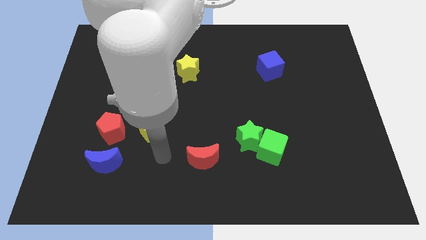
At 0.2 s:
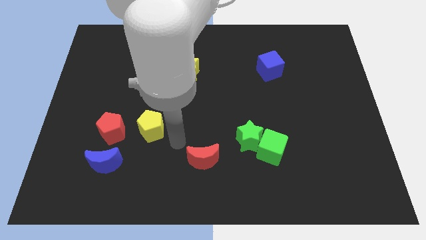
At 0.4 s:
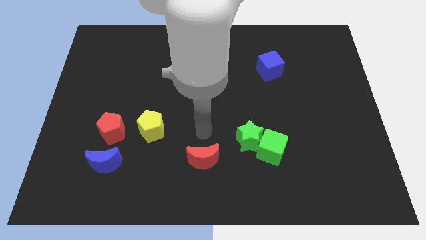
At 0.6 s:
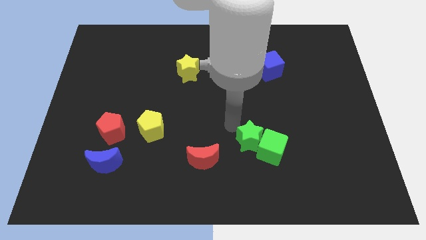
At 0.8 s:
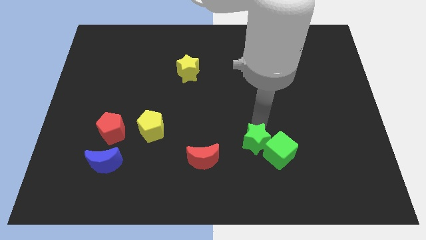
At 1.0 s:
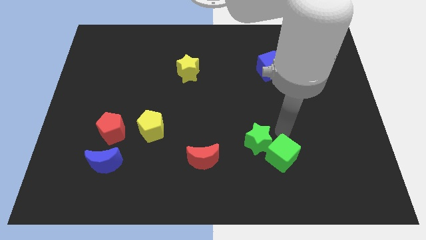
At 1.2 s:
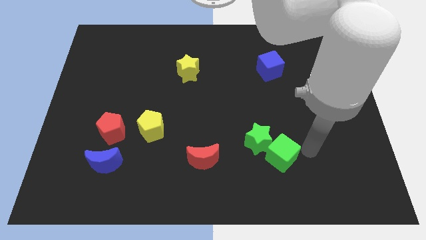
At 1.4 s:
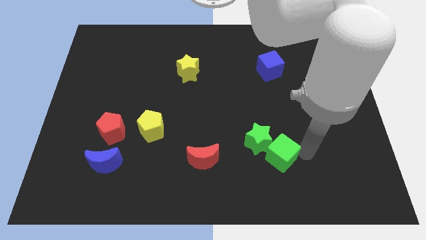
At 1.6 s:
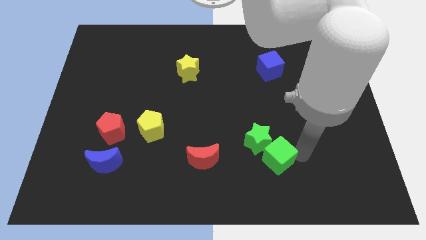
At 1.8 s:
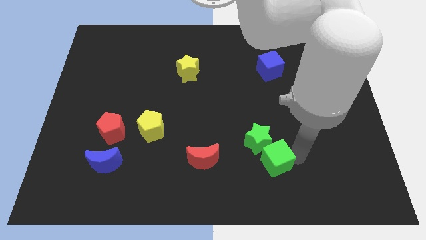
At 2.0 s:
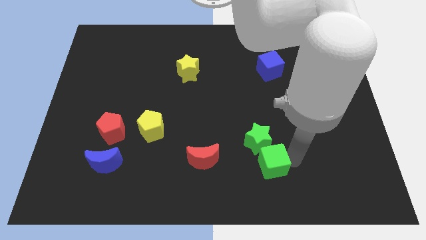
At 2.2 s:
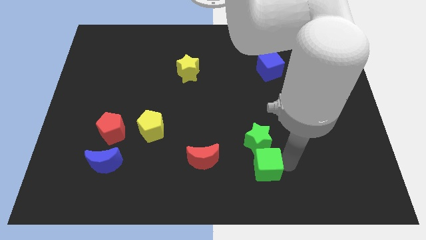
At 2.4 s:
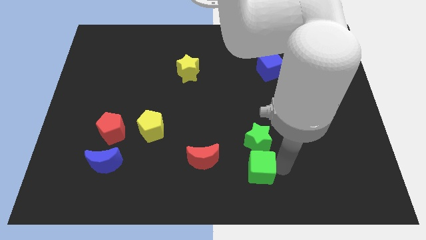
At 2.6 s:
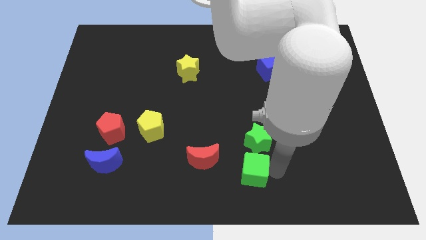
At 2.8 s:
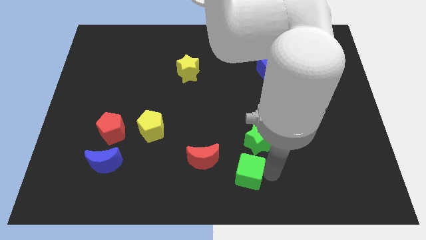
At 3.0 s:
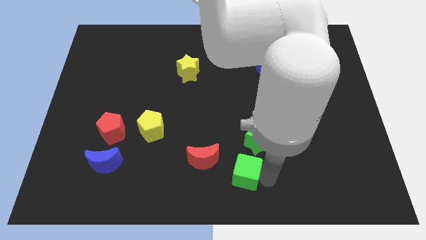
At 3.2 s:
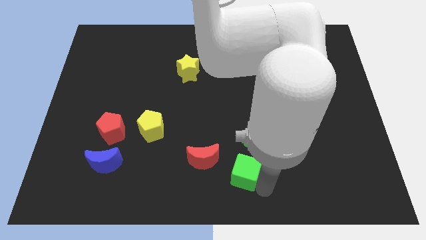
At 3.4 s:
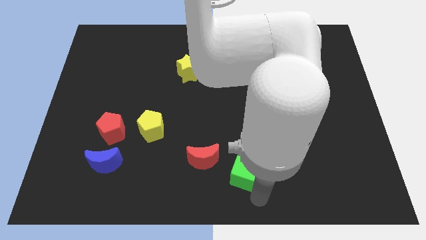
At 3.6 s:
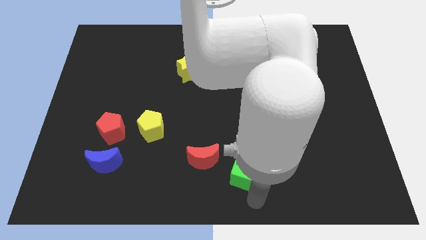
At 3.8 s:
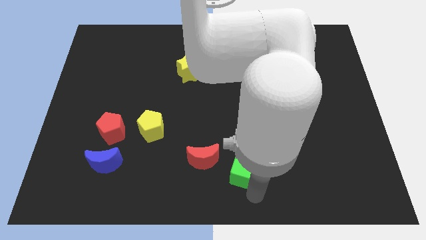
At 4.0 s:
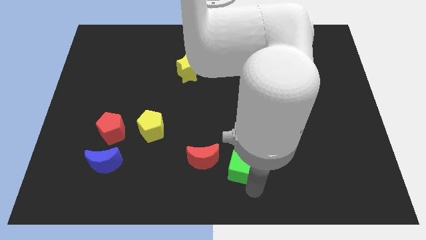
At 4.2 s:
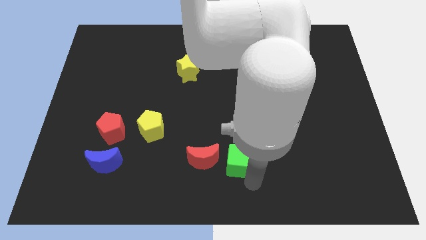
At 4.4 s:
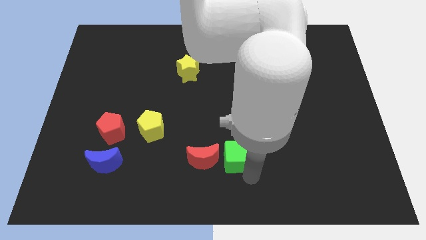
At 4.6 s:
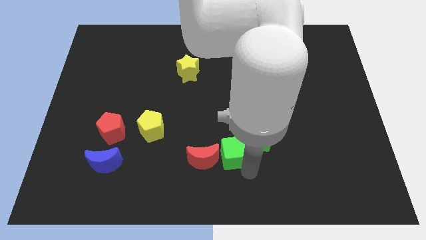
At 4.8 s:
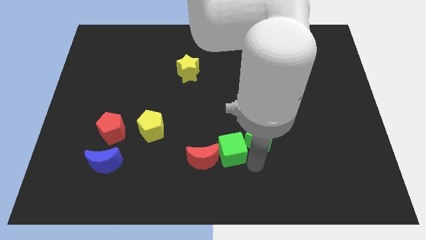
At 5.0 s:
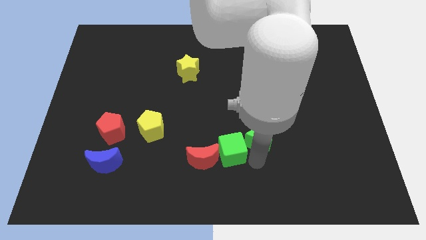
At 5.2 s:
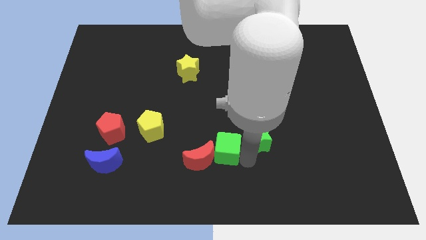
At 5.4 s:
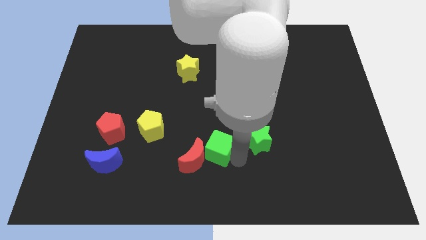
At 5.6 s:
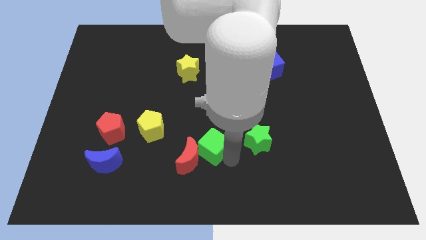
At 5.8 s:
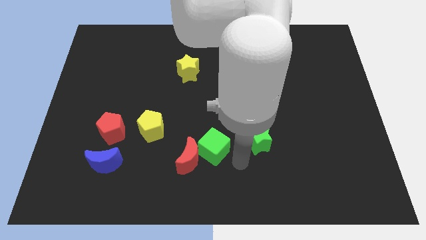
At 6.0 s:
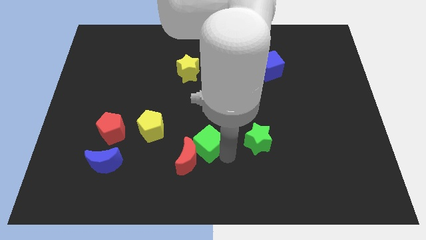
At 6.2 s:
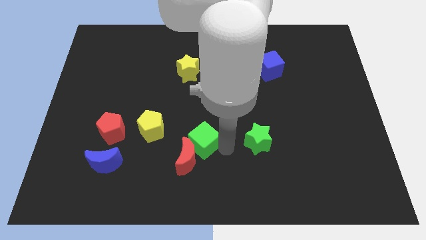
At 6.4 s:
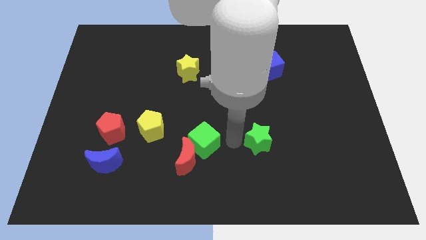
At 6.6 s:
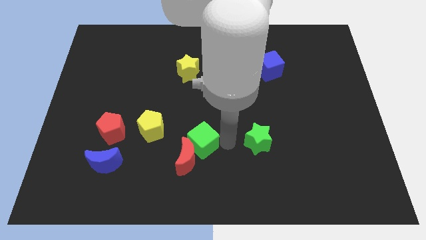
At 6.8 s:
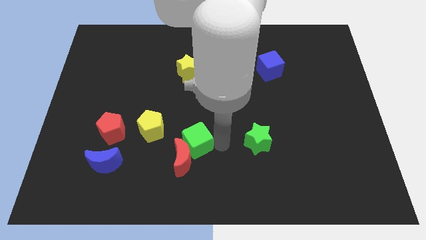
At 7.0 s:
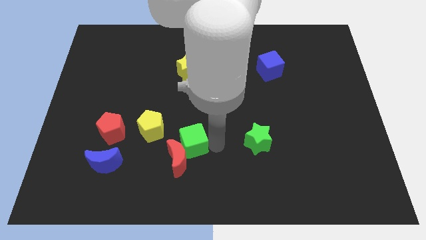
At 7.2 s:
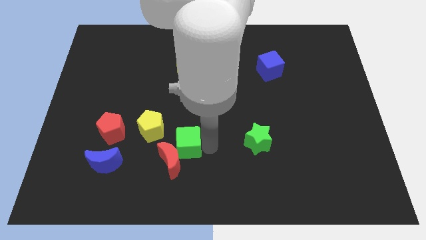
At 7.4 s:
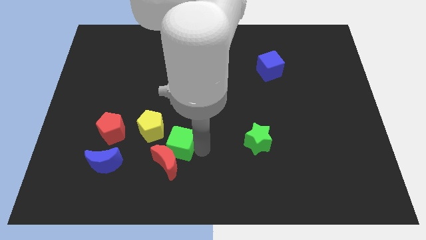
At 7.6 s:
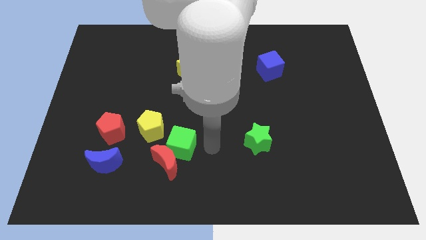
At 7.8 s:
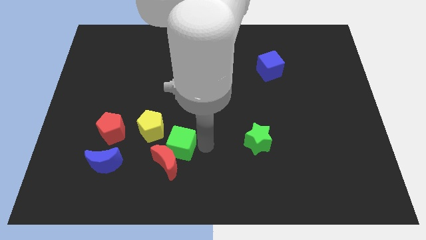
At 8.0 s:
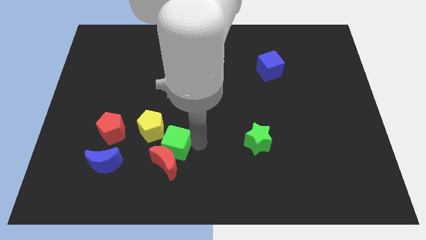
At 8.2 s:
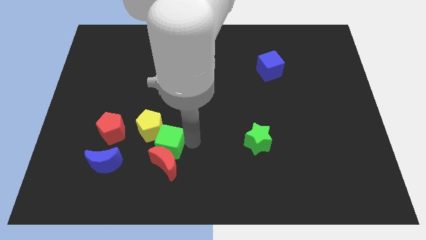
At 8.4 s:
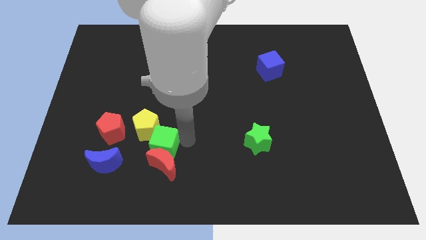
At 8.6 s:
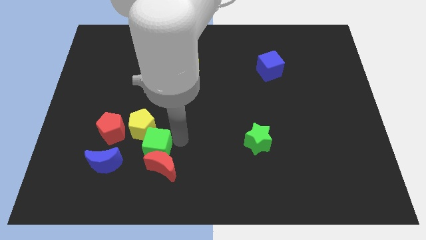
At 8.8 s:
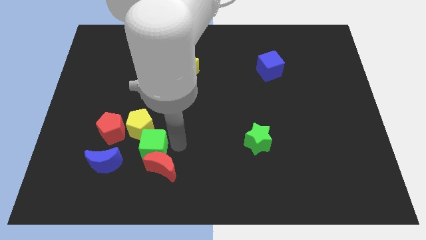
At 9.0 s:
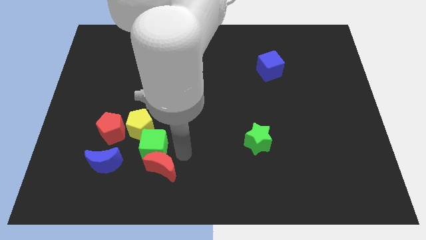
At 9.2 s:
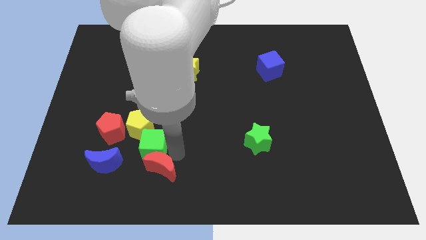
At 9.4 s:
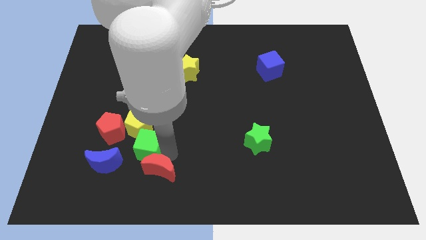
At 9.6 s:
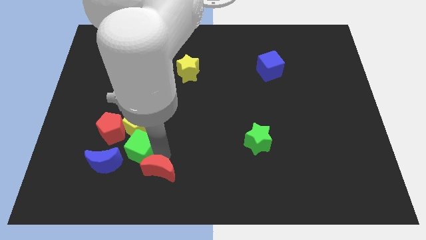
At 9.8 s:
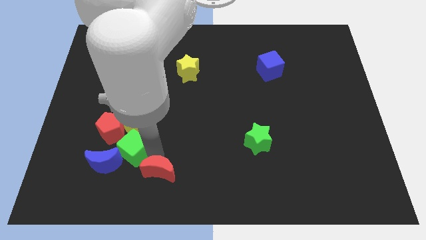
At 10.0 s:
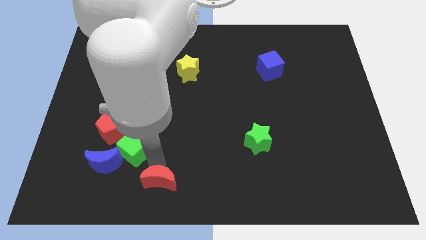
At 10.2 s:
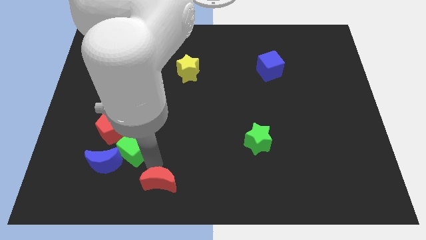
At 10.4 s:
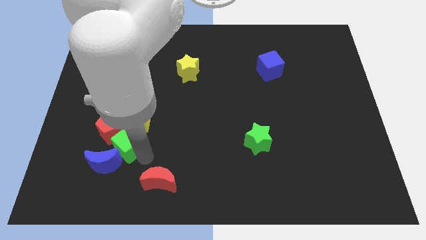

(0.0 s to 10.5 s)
put the green cube close to the red pentagon

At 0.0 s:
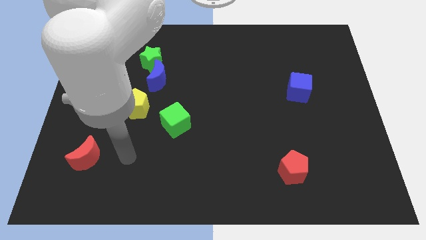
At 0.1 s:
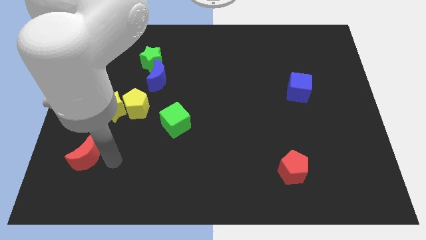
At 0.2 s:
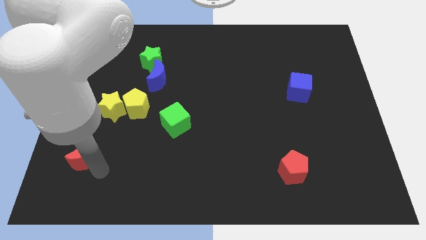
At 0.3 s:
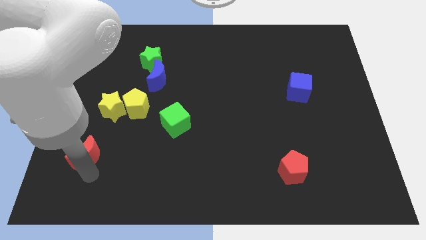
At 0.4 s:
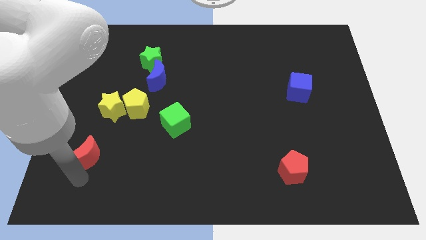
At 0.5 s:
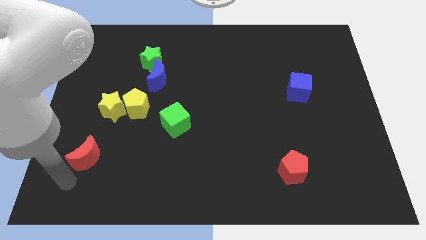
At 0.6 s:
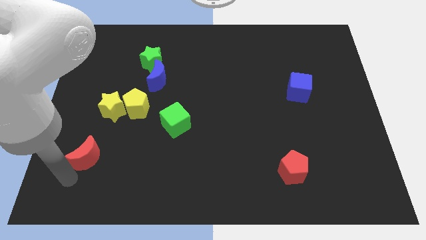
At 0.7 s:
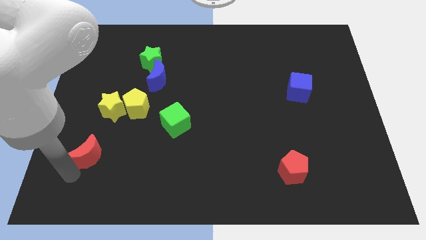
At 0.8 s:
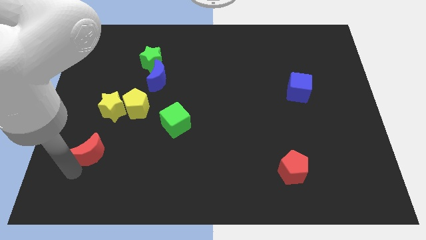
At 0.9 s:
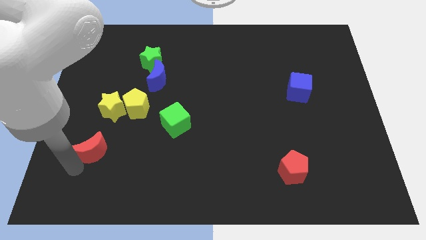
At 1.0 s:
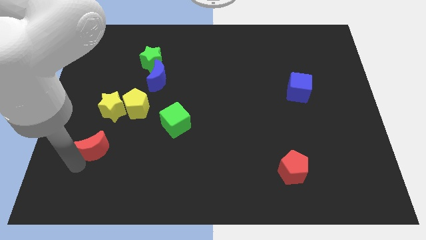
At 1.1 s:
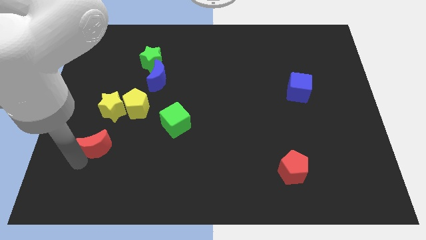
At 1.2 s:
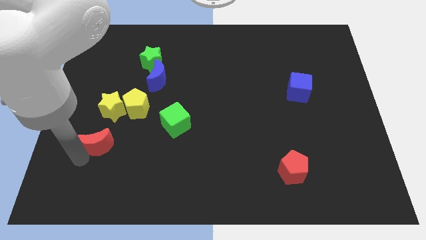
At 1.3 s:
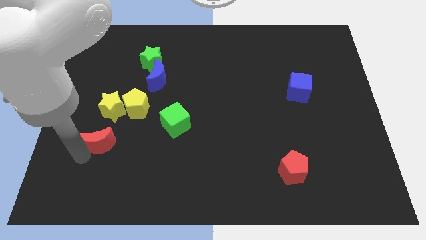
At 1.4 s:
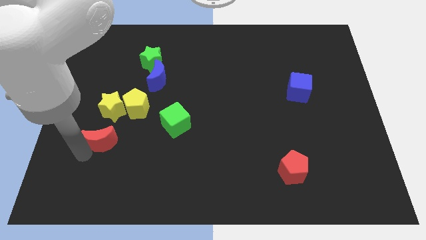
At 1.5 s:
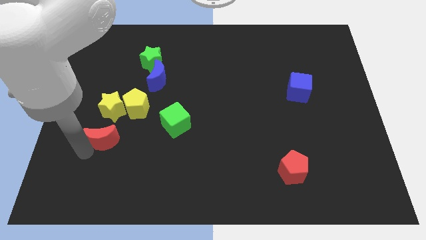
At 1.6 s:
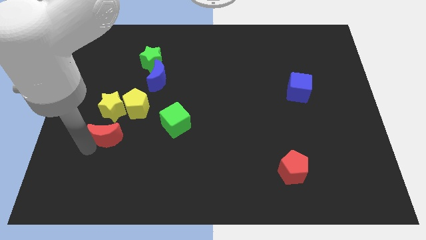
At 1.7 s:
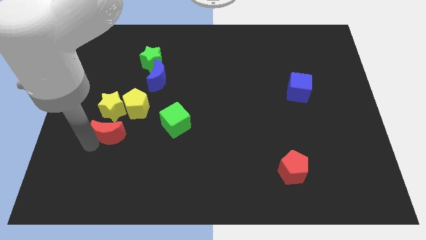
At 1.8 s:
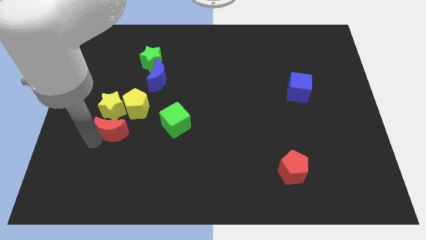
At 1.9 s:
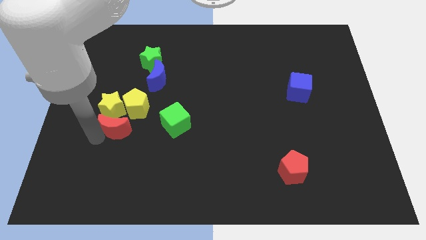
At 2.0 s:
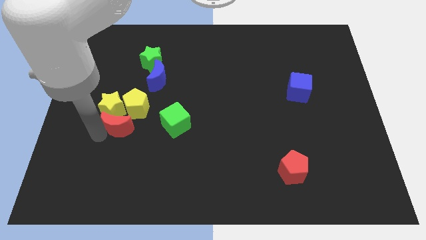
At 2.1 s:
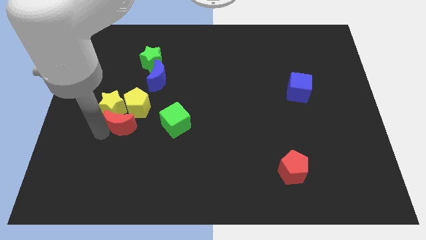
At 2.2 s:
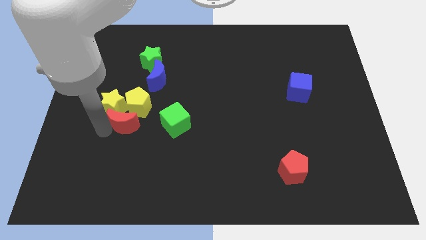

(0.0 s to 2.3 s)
move the red moon close to the yellow pentagon
